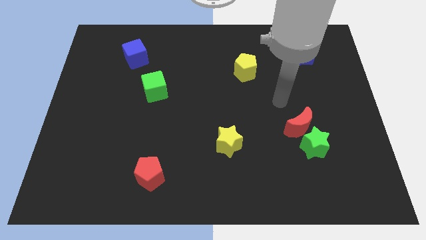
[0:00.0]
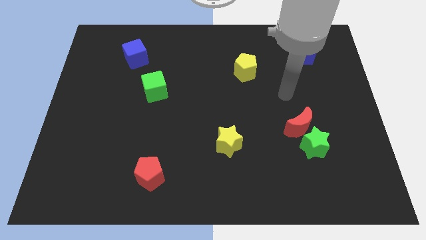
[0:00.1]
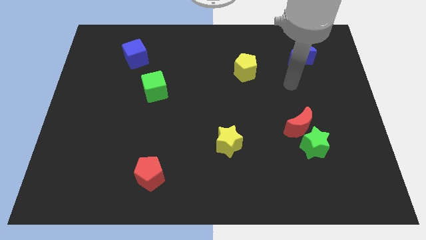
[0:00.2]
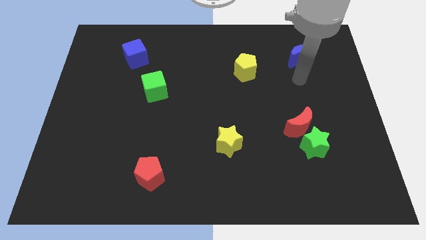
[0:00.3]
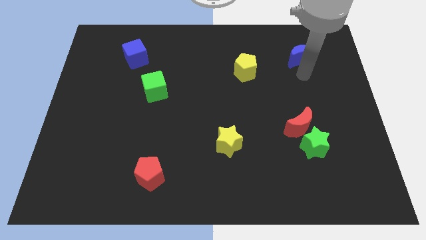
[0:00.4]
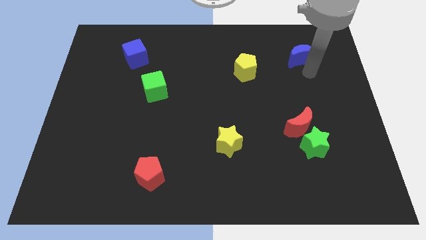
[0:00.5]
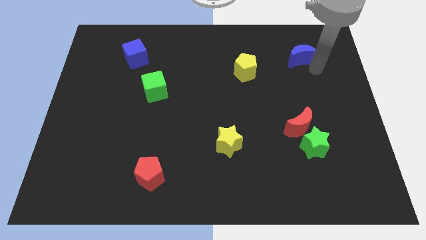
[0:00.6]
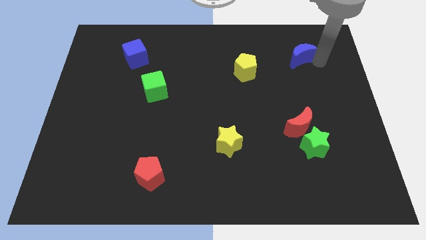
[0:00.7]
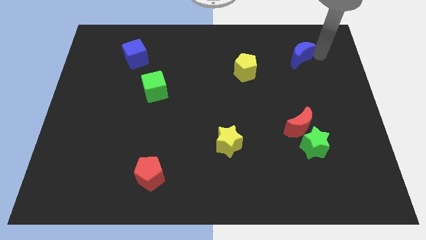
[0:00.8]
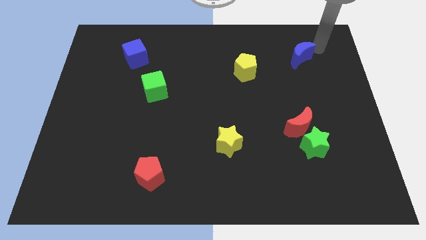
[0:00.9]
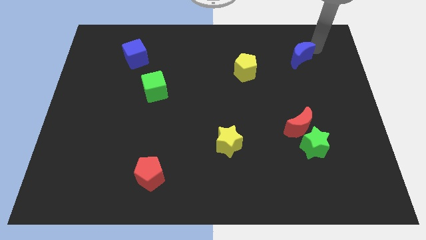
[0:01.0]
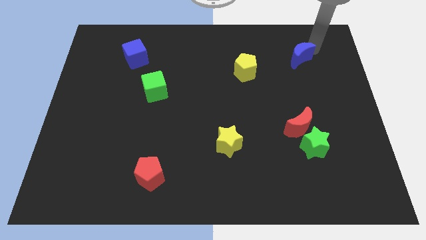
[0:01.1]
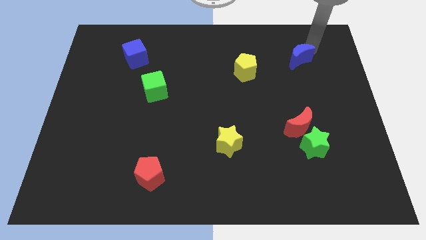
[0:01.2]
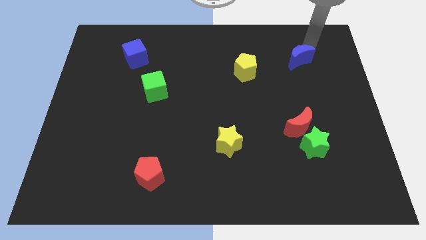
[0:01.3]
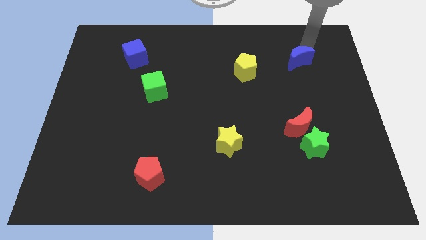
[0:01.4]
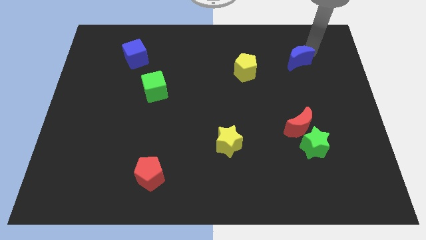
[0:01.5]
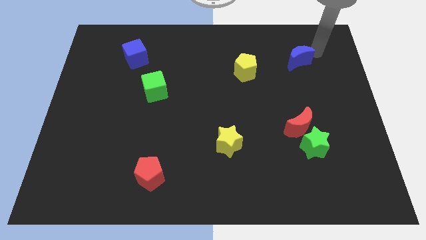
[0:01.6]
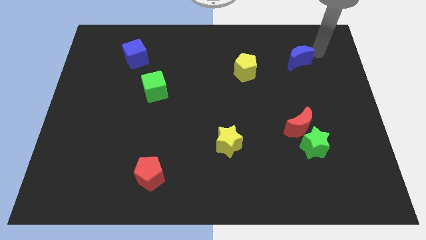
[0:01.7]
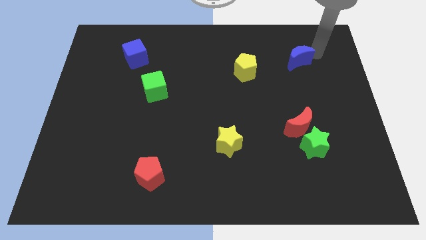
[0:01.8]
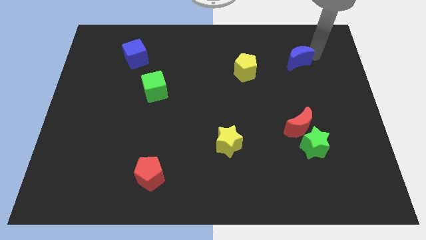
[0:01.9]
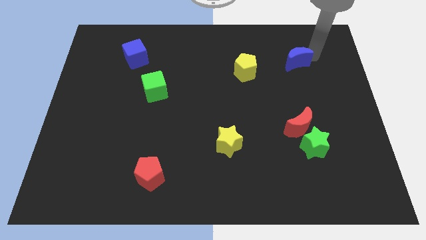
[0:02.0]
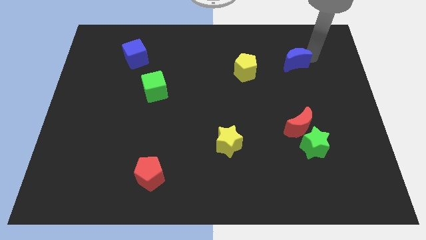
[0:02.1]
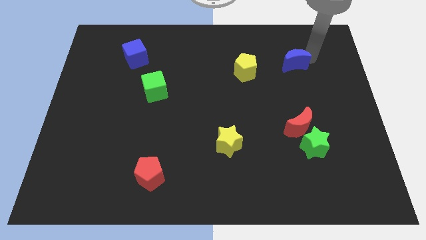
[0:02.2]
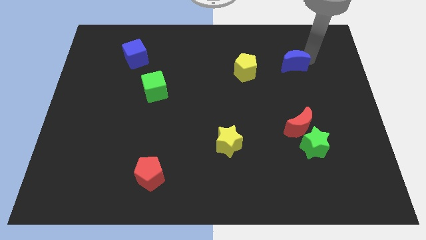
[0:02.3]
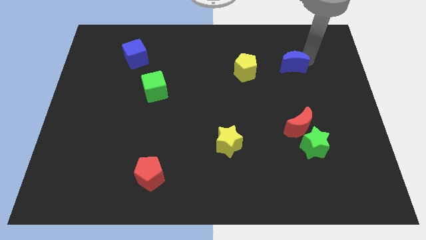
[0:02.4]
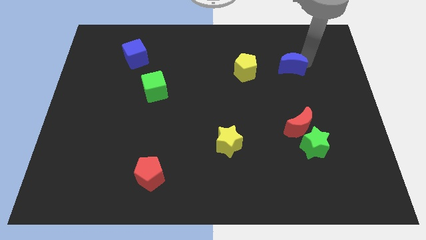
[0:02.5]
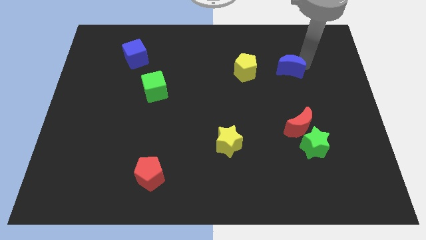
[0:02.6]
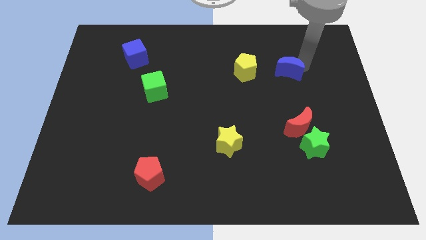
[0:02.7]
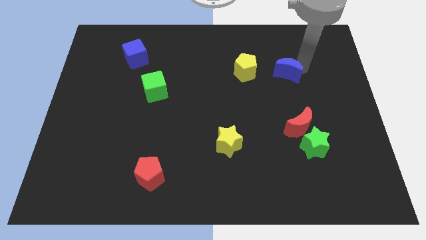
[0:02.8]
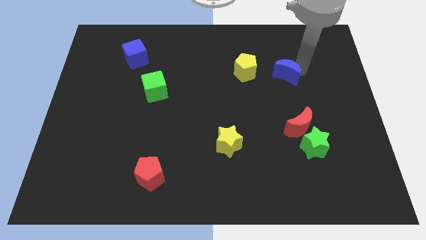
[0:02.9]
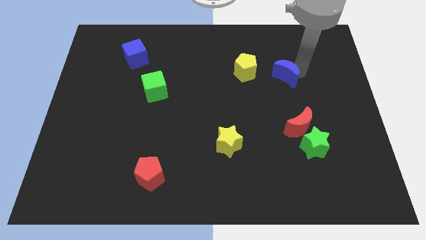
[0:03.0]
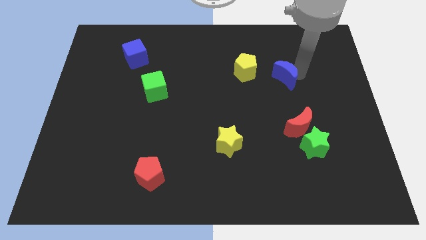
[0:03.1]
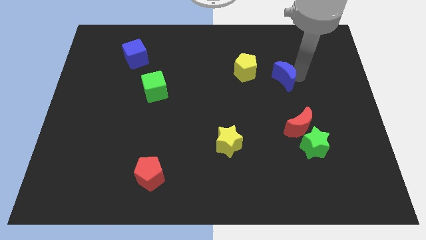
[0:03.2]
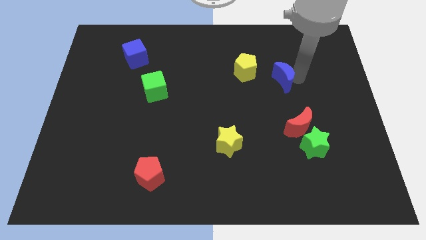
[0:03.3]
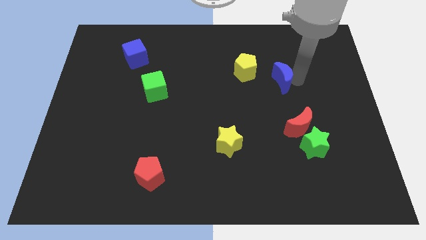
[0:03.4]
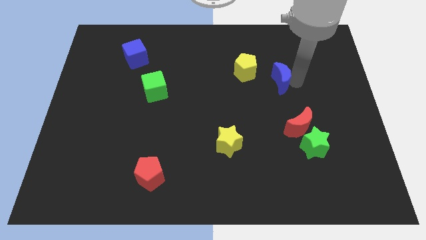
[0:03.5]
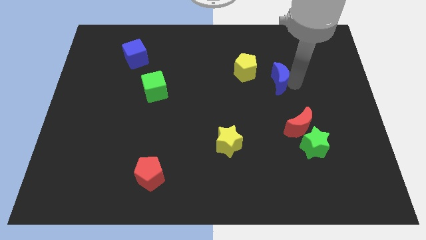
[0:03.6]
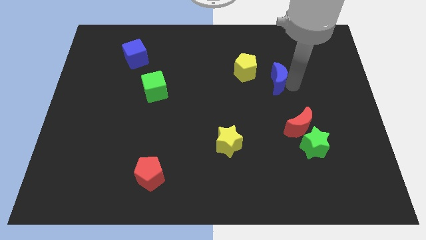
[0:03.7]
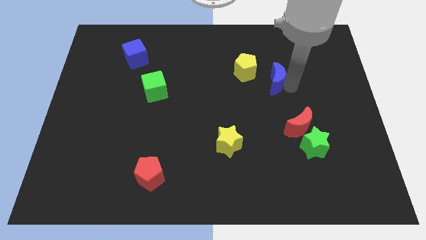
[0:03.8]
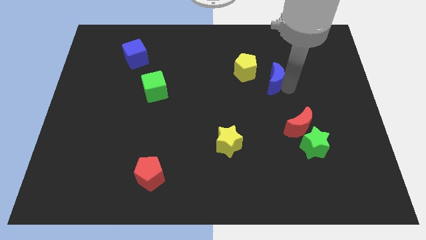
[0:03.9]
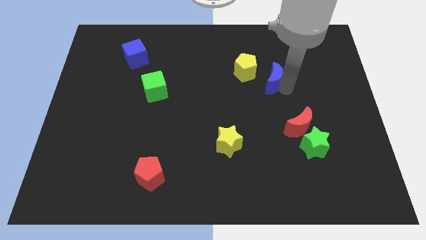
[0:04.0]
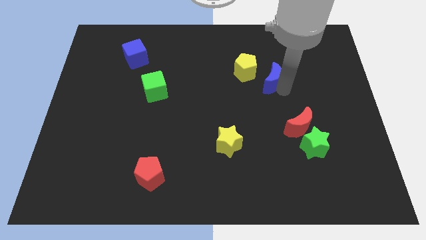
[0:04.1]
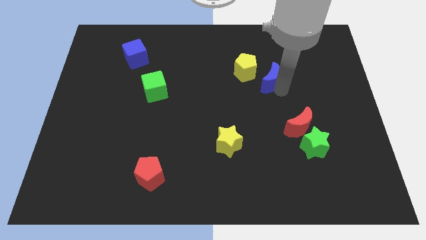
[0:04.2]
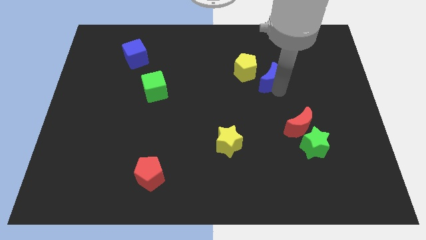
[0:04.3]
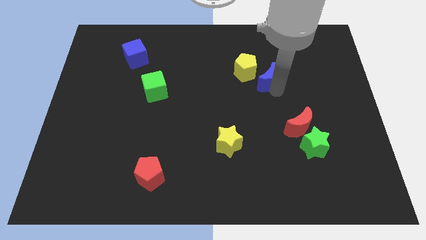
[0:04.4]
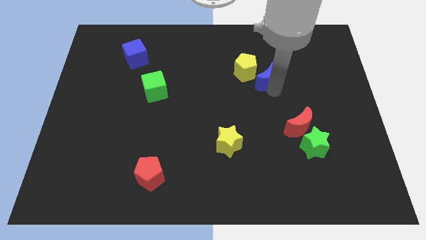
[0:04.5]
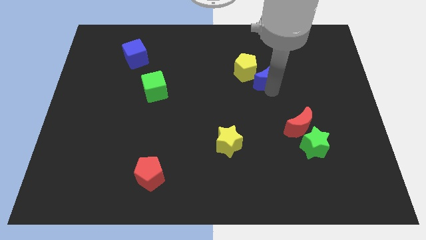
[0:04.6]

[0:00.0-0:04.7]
push the blue moon close to the yellow pentagon

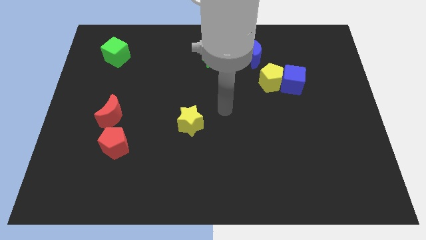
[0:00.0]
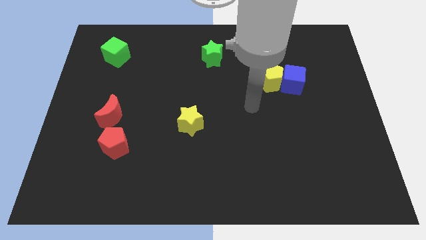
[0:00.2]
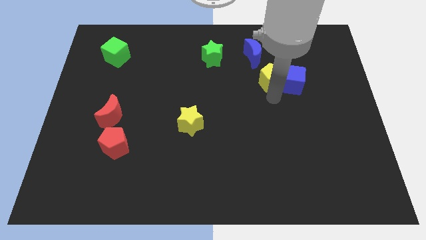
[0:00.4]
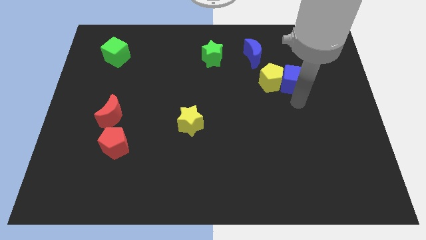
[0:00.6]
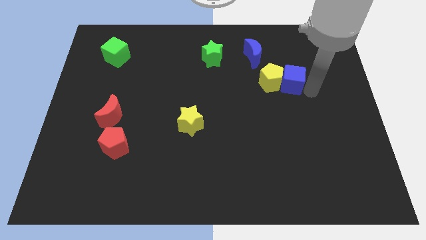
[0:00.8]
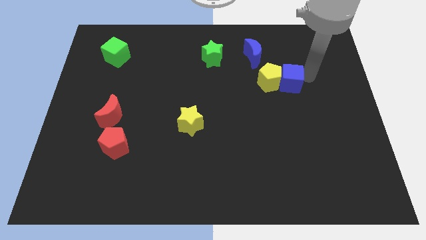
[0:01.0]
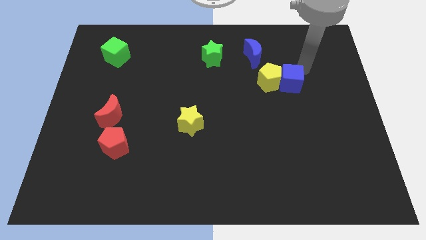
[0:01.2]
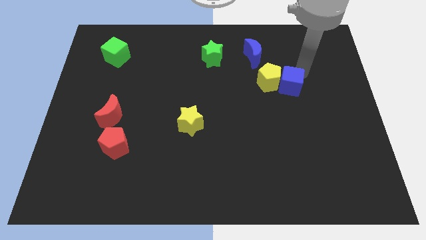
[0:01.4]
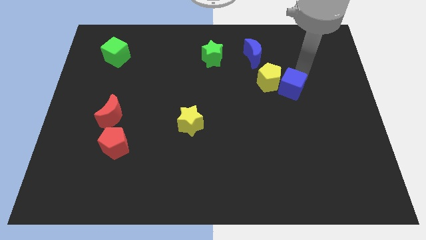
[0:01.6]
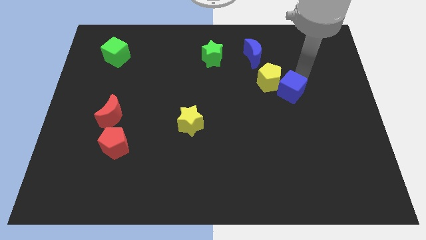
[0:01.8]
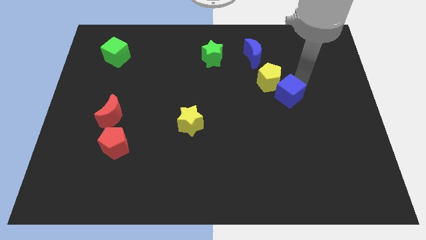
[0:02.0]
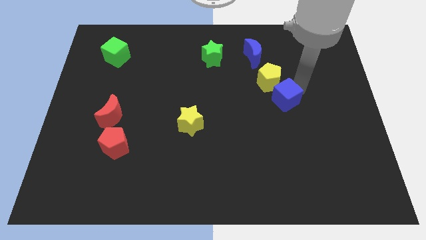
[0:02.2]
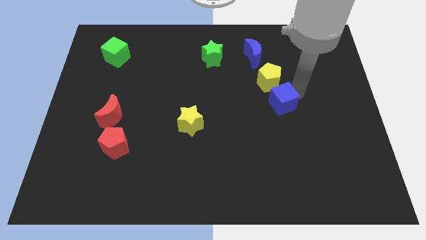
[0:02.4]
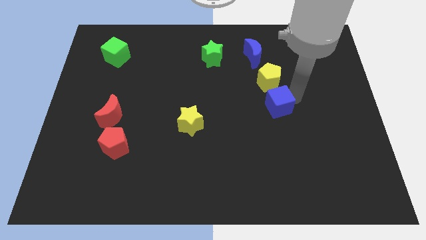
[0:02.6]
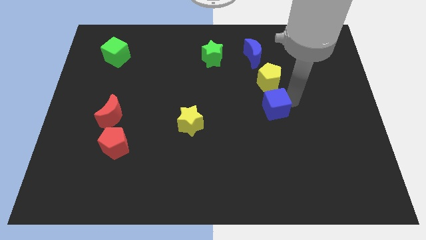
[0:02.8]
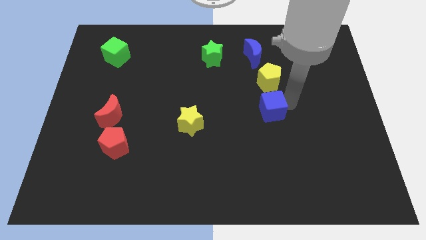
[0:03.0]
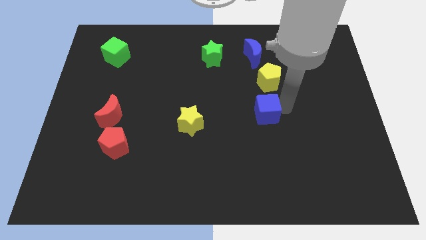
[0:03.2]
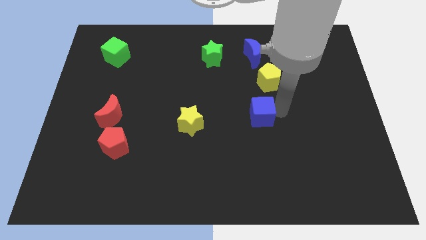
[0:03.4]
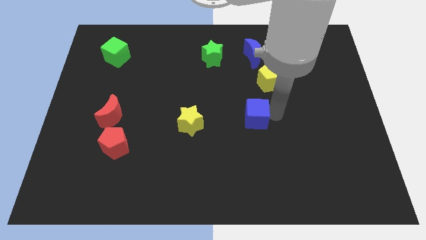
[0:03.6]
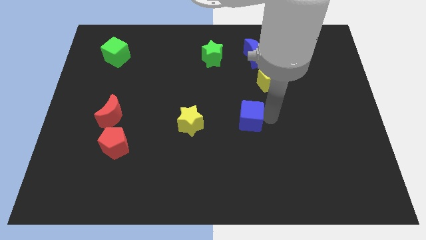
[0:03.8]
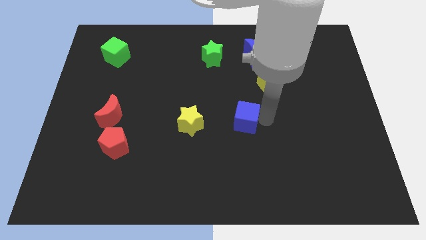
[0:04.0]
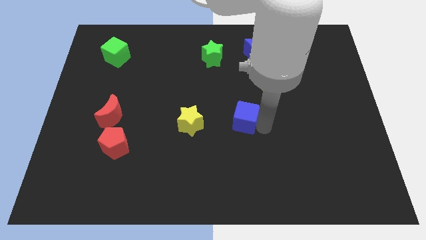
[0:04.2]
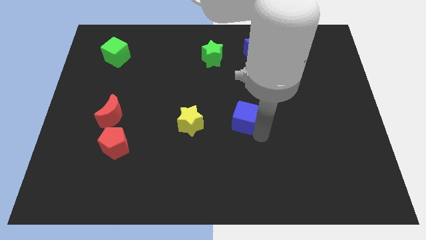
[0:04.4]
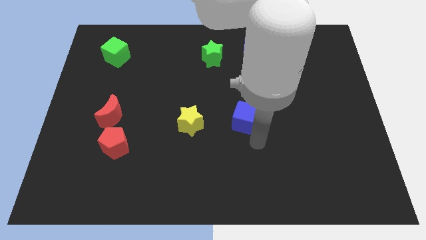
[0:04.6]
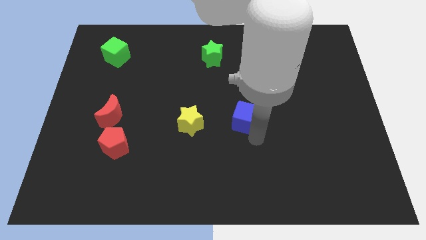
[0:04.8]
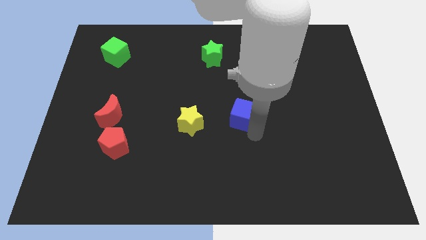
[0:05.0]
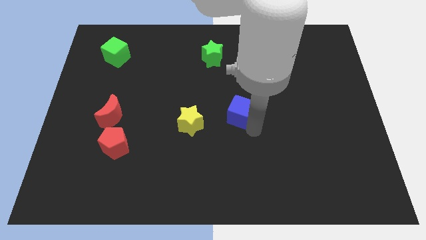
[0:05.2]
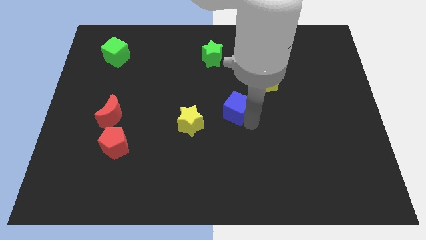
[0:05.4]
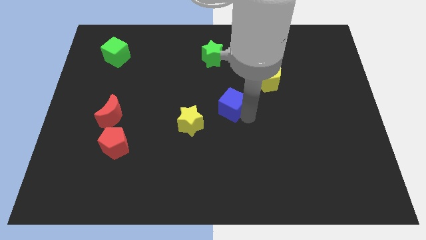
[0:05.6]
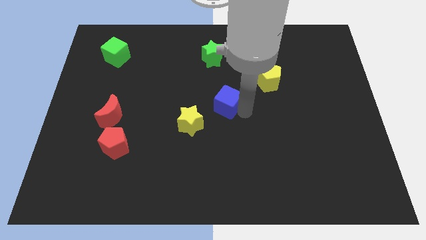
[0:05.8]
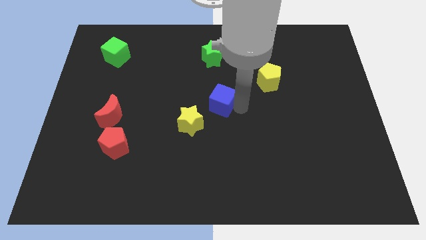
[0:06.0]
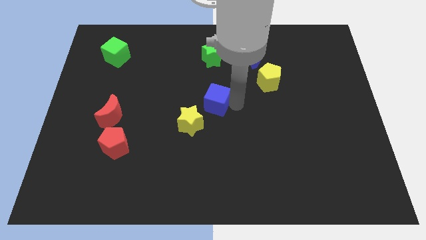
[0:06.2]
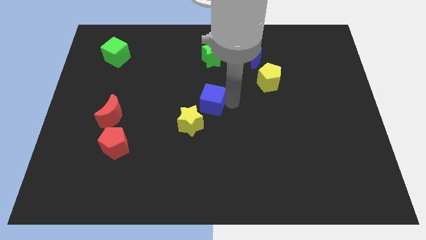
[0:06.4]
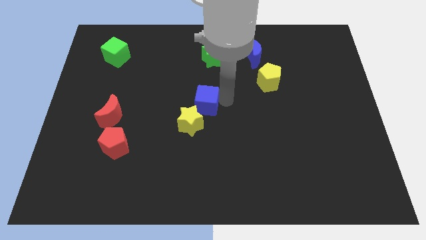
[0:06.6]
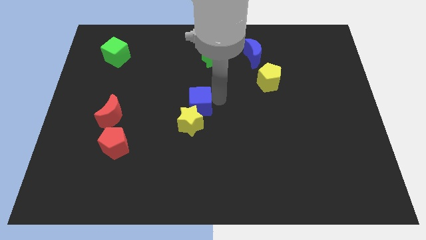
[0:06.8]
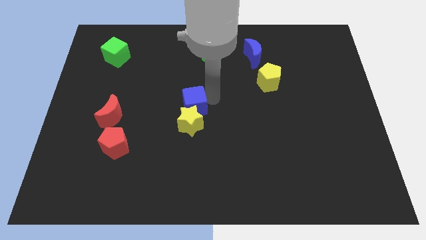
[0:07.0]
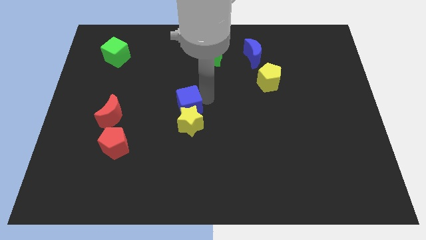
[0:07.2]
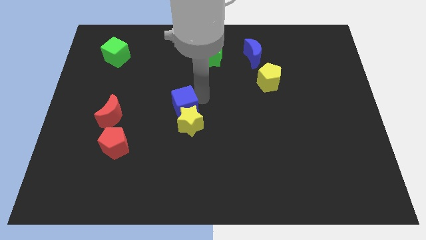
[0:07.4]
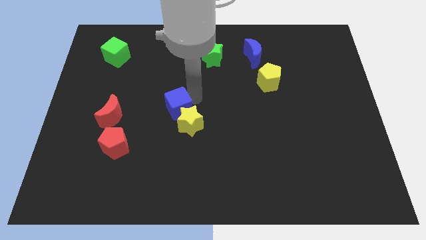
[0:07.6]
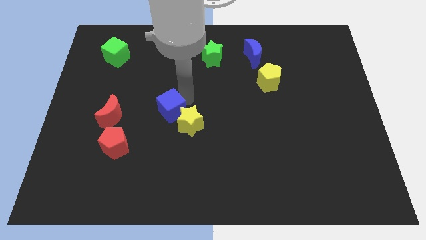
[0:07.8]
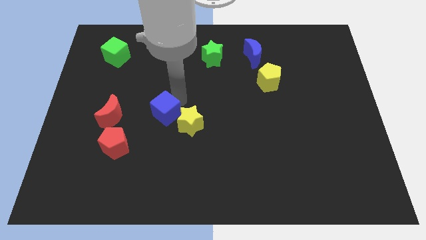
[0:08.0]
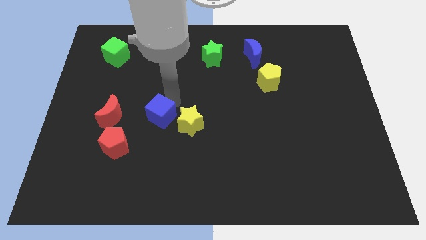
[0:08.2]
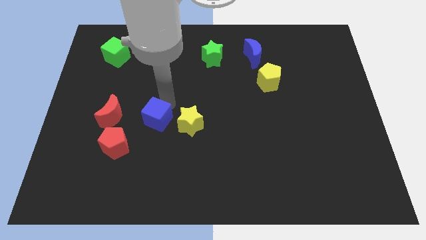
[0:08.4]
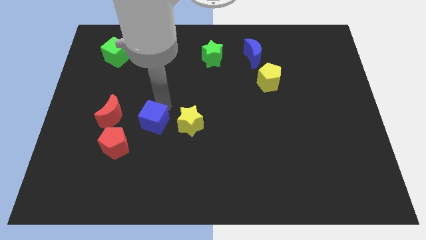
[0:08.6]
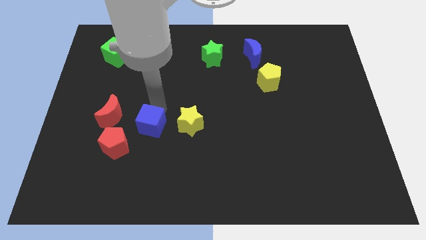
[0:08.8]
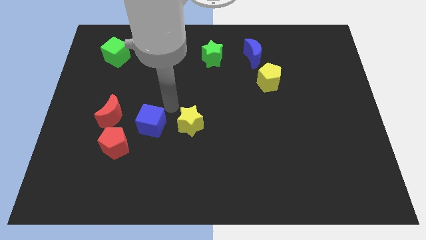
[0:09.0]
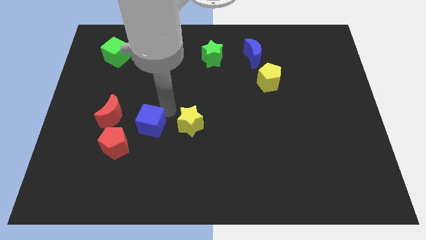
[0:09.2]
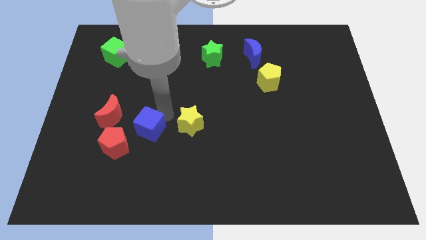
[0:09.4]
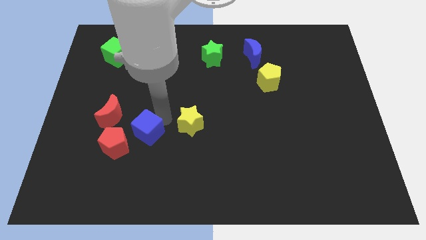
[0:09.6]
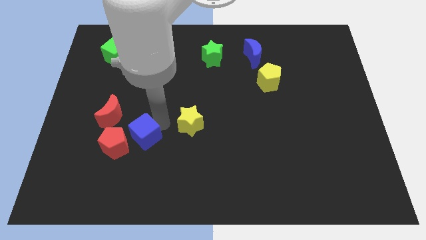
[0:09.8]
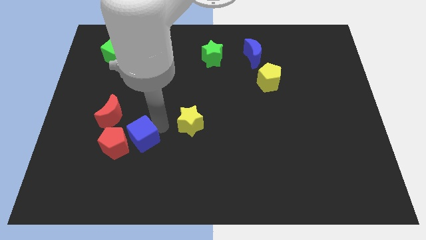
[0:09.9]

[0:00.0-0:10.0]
push the blue cube to the red pentagon
